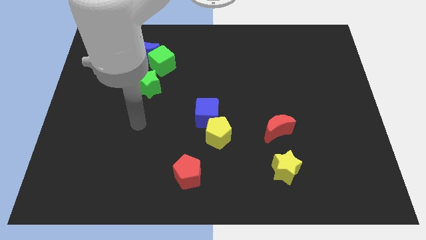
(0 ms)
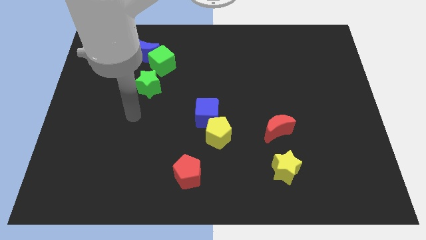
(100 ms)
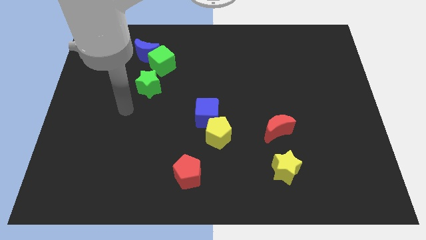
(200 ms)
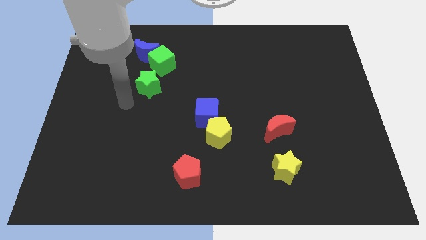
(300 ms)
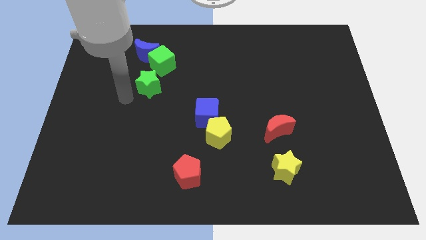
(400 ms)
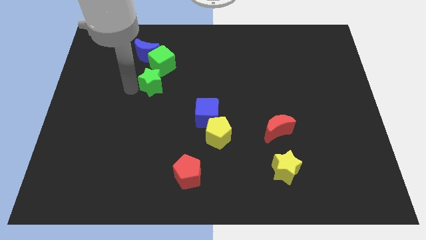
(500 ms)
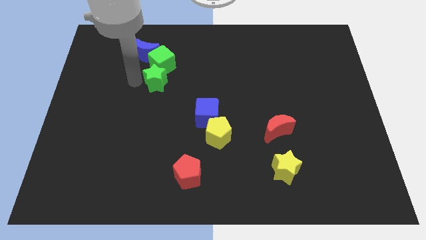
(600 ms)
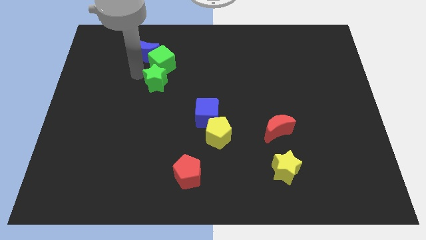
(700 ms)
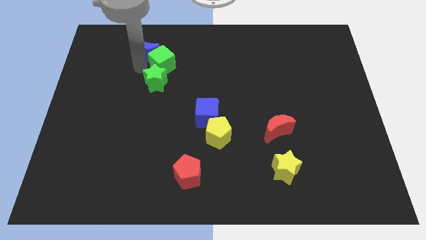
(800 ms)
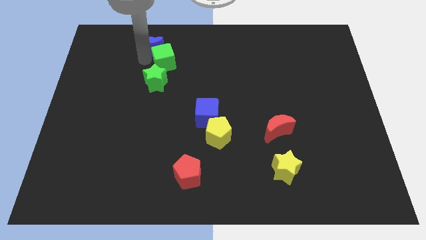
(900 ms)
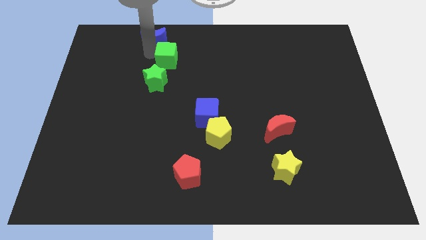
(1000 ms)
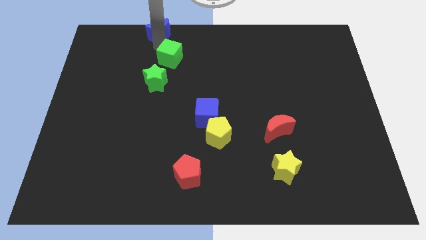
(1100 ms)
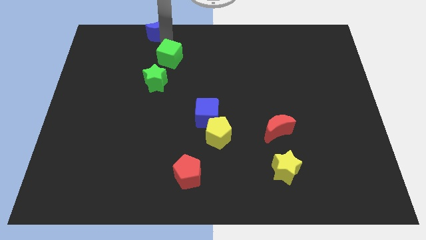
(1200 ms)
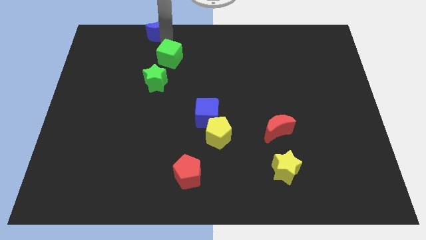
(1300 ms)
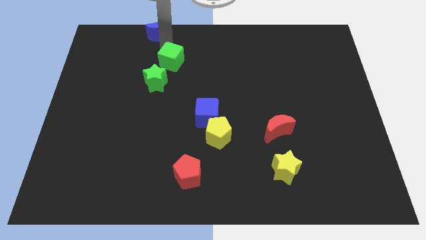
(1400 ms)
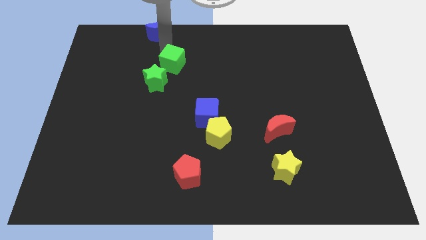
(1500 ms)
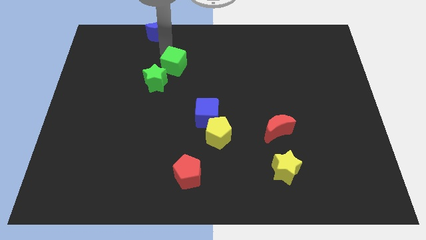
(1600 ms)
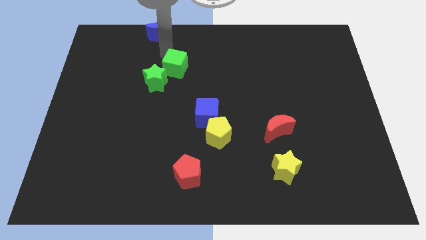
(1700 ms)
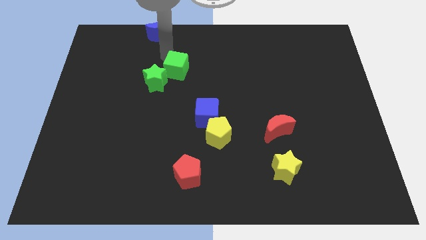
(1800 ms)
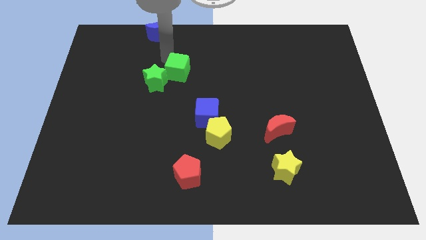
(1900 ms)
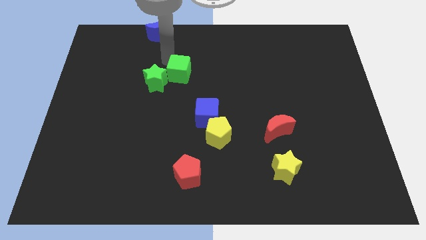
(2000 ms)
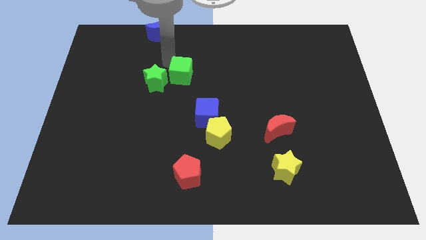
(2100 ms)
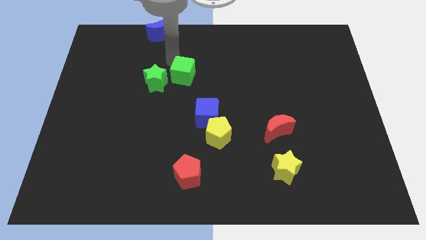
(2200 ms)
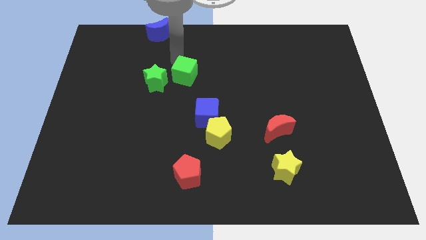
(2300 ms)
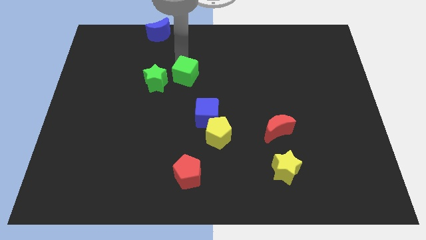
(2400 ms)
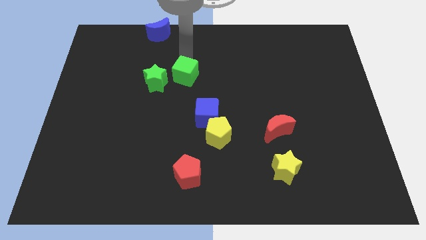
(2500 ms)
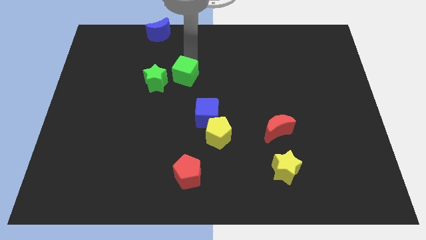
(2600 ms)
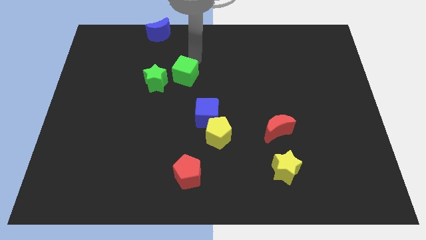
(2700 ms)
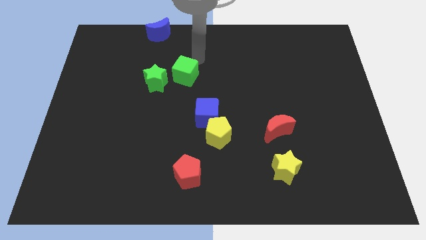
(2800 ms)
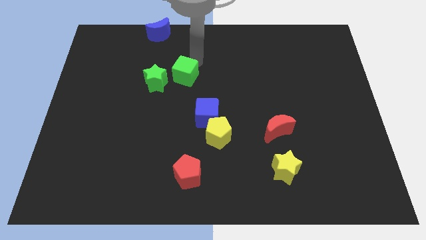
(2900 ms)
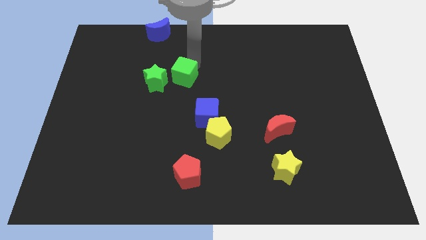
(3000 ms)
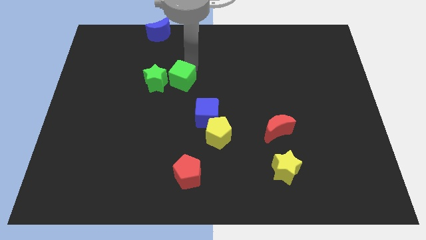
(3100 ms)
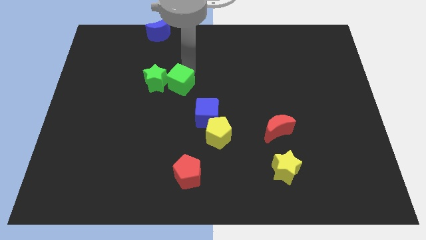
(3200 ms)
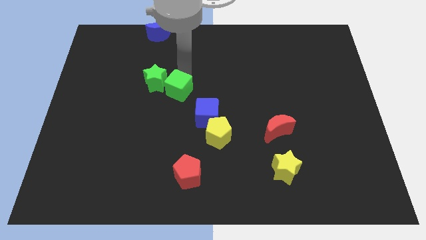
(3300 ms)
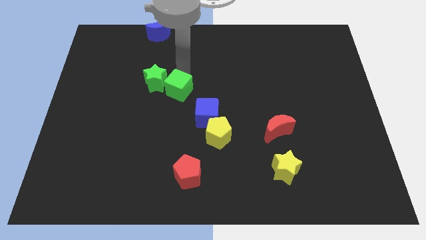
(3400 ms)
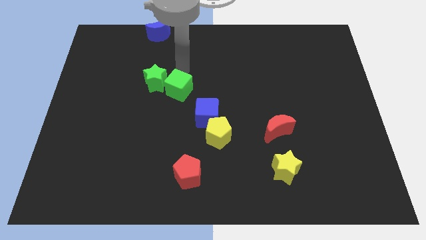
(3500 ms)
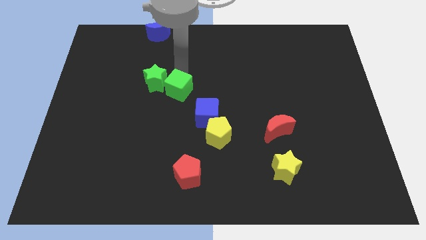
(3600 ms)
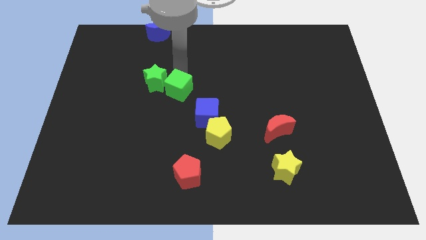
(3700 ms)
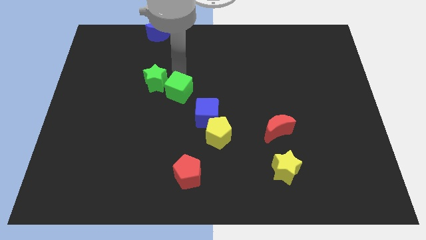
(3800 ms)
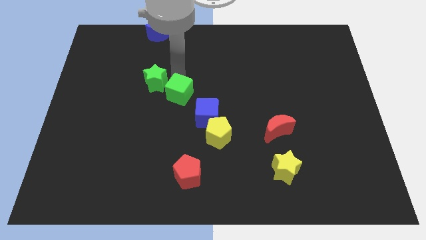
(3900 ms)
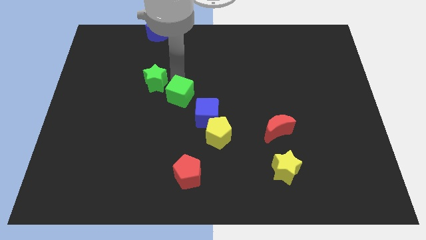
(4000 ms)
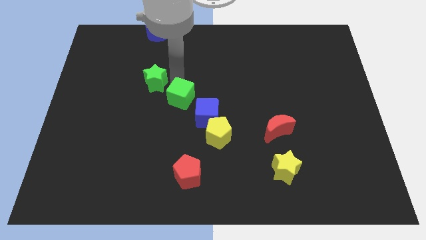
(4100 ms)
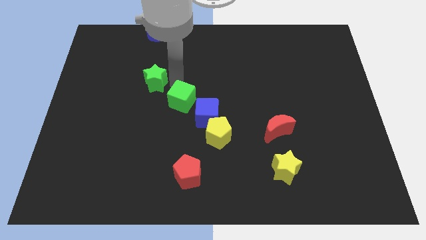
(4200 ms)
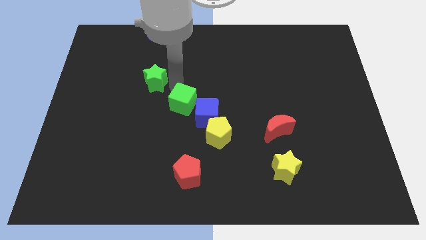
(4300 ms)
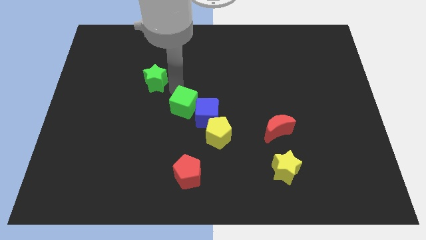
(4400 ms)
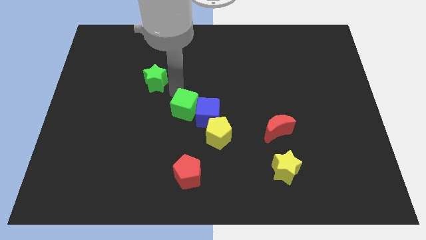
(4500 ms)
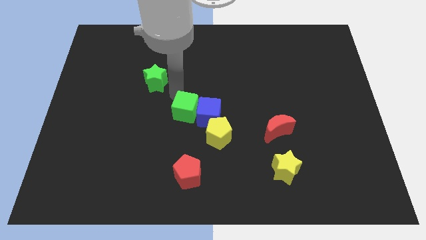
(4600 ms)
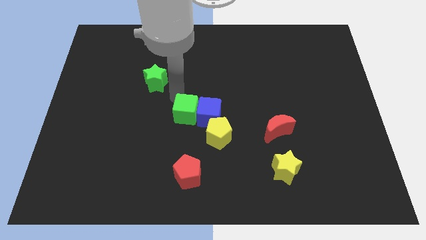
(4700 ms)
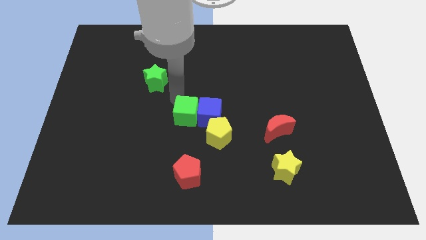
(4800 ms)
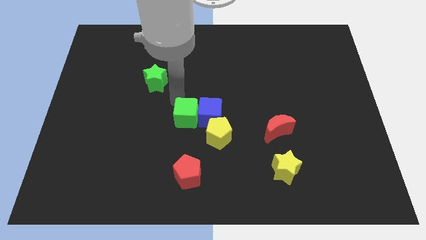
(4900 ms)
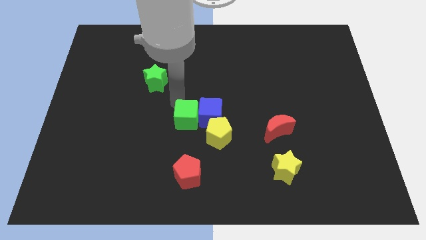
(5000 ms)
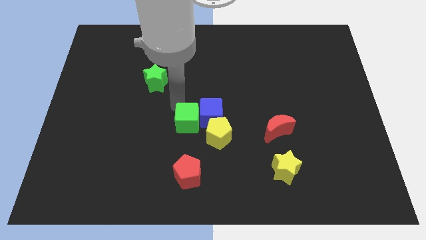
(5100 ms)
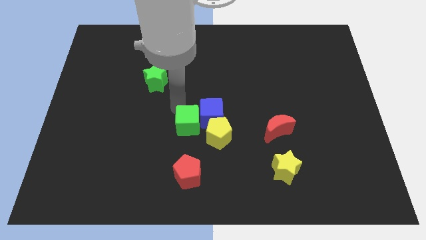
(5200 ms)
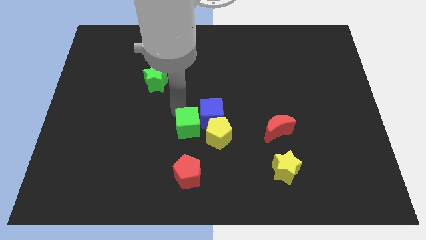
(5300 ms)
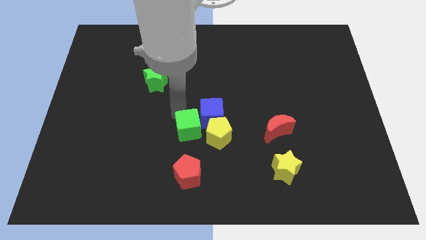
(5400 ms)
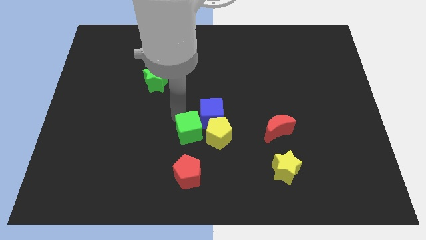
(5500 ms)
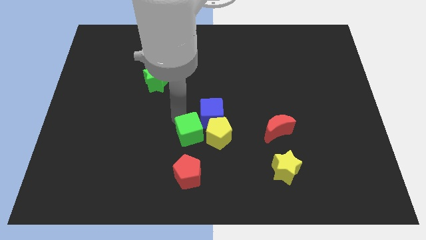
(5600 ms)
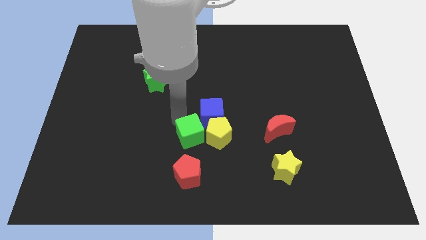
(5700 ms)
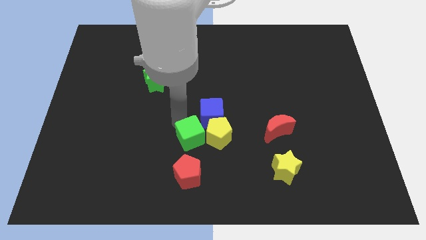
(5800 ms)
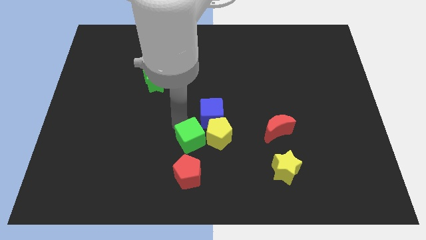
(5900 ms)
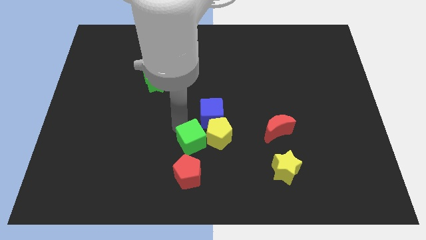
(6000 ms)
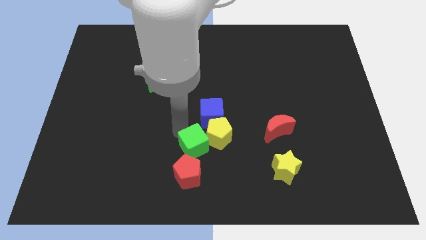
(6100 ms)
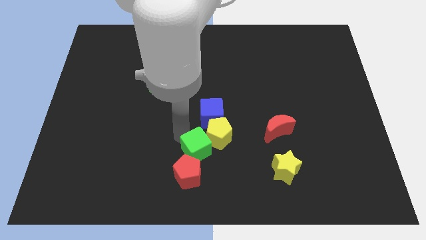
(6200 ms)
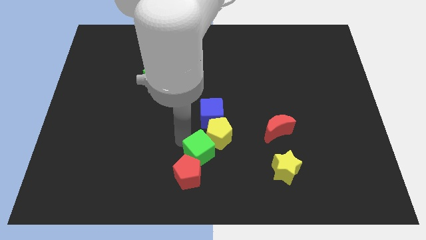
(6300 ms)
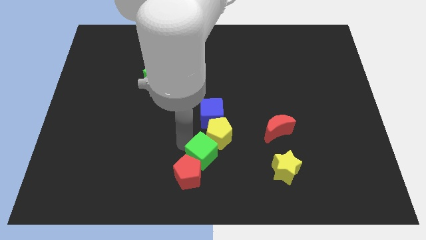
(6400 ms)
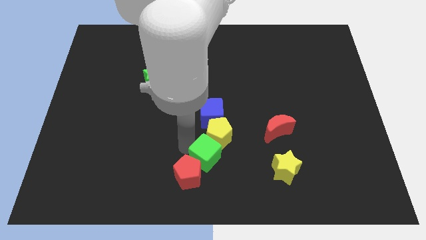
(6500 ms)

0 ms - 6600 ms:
slide the green cube to the right of the red pentagon

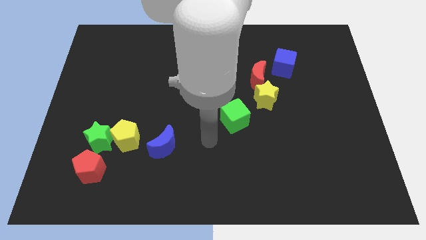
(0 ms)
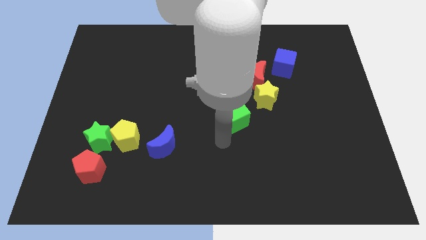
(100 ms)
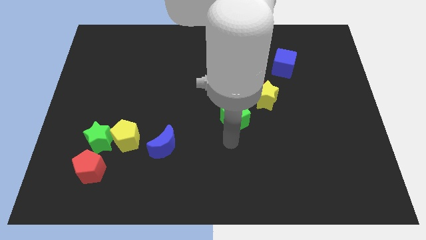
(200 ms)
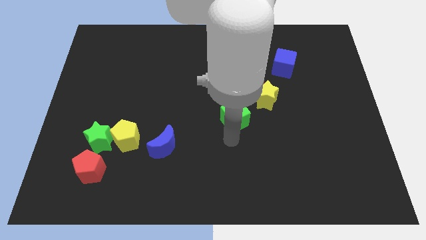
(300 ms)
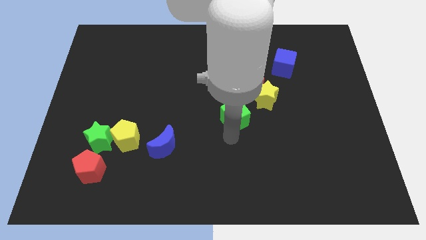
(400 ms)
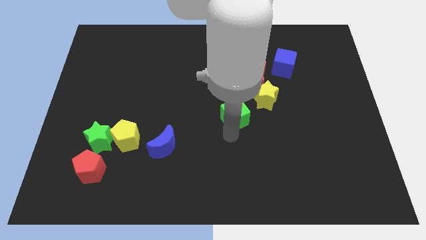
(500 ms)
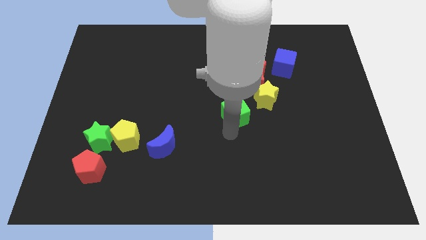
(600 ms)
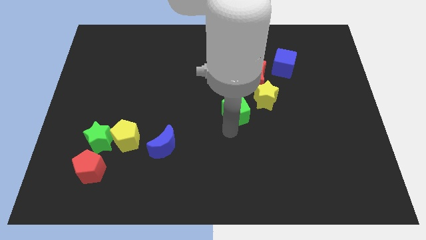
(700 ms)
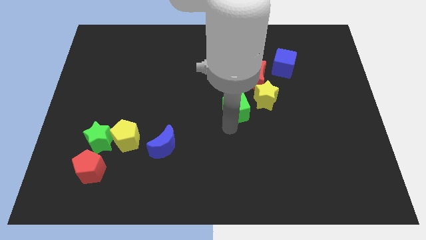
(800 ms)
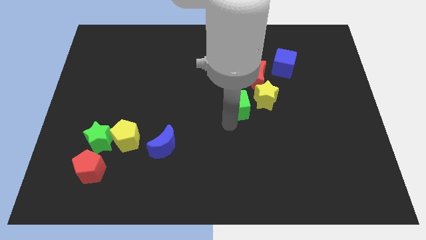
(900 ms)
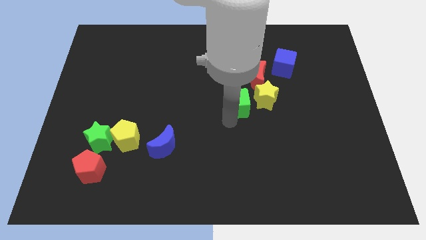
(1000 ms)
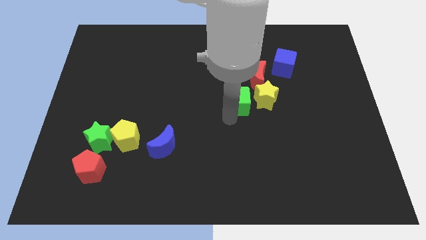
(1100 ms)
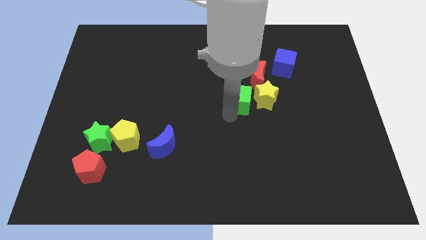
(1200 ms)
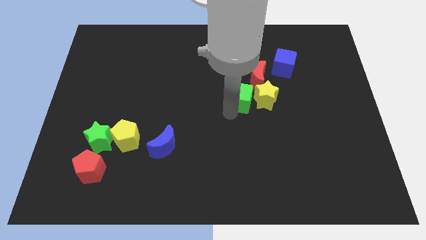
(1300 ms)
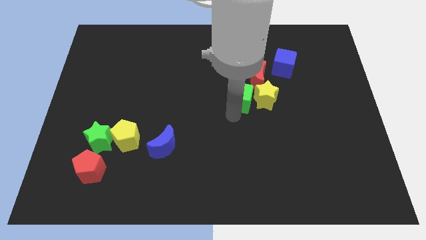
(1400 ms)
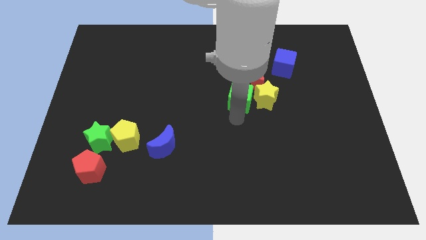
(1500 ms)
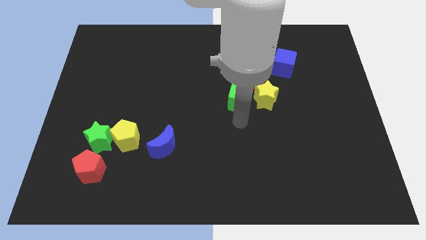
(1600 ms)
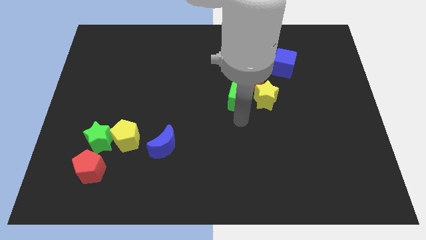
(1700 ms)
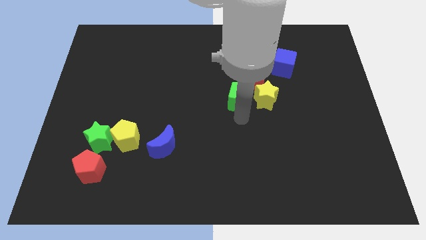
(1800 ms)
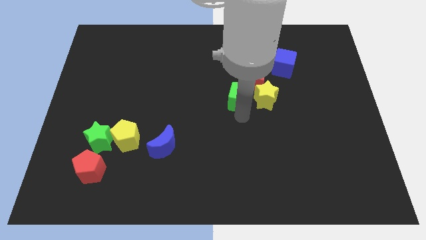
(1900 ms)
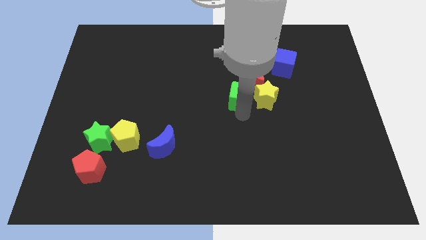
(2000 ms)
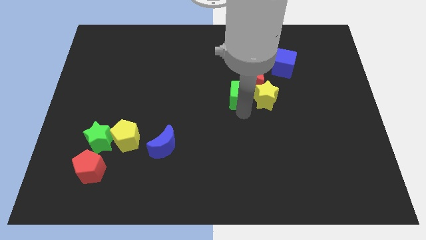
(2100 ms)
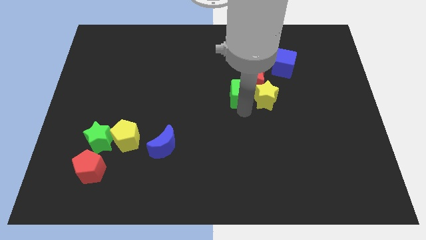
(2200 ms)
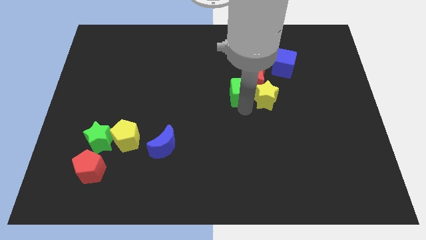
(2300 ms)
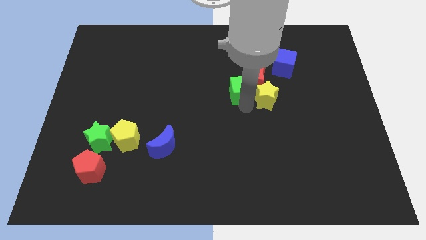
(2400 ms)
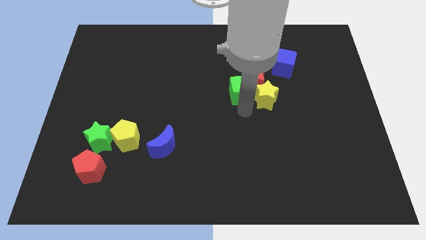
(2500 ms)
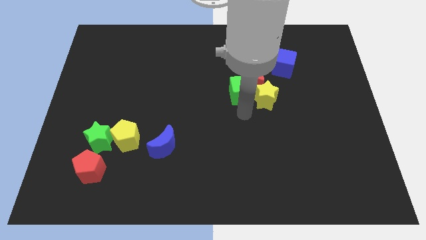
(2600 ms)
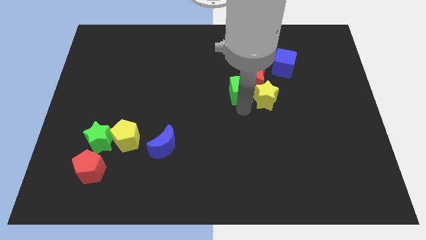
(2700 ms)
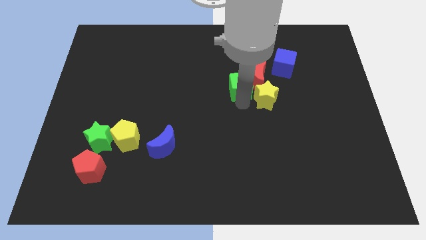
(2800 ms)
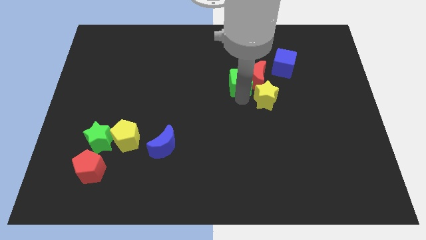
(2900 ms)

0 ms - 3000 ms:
push the green cube to the top left of the red moon
